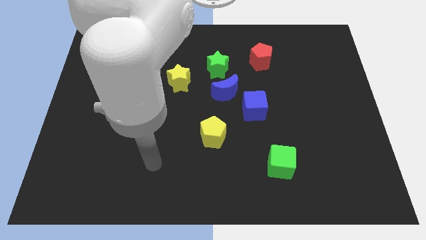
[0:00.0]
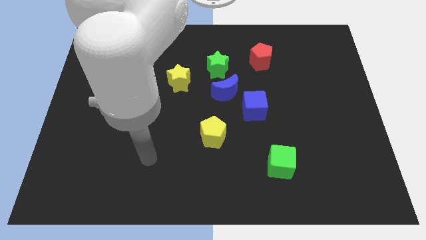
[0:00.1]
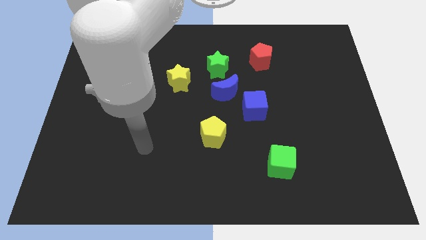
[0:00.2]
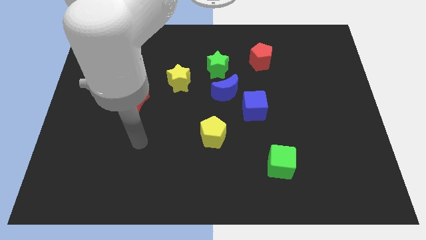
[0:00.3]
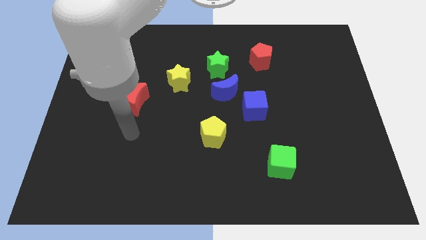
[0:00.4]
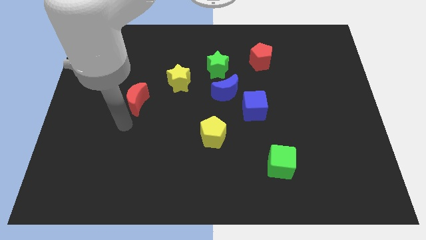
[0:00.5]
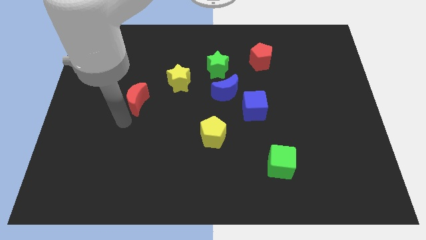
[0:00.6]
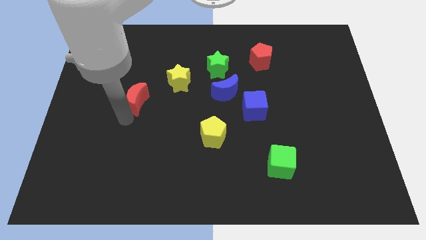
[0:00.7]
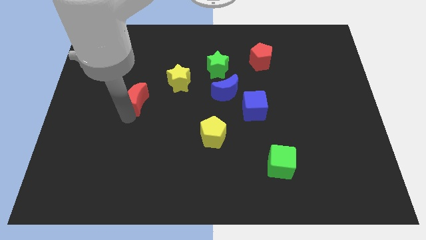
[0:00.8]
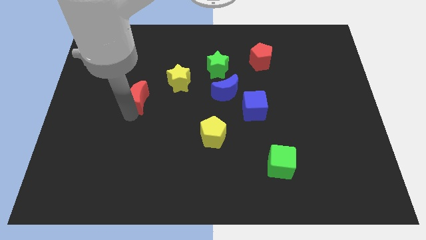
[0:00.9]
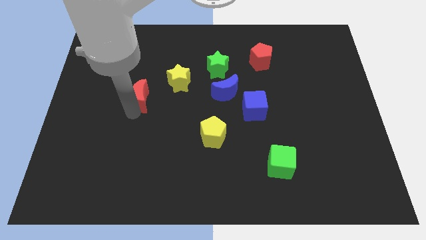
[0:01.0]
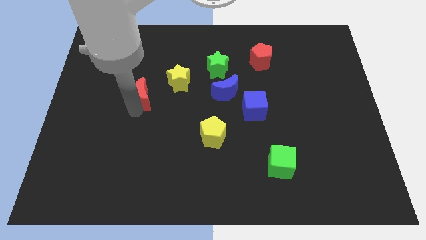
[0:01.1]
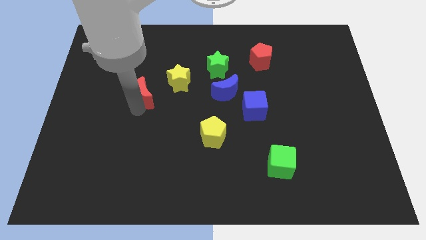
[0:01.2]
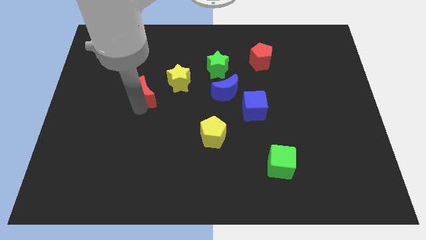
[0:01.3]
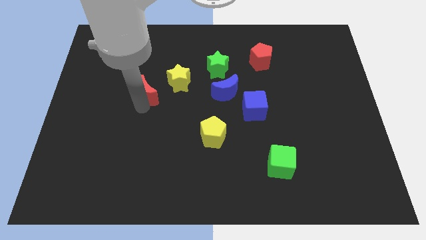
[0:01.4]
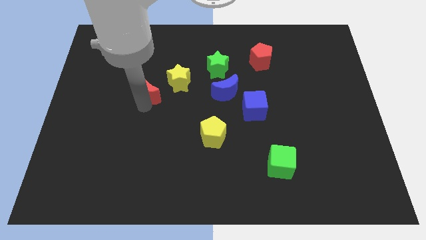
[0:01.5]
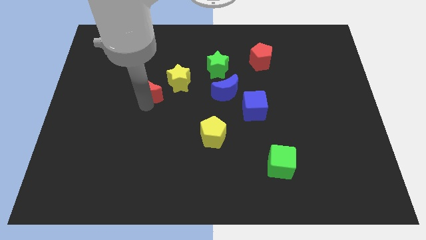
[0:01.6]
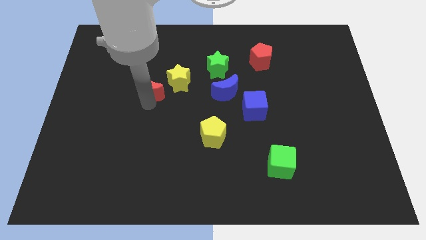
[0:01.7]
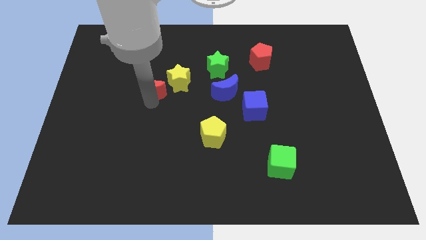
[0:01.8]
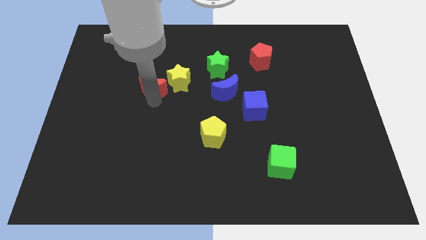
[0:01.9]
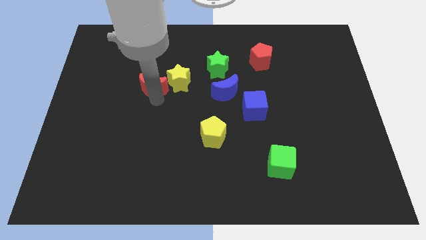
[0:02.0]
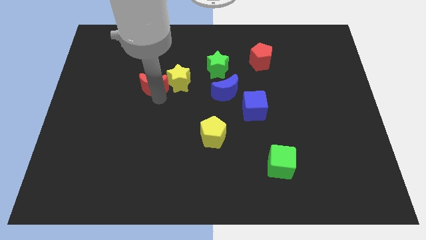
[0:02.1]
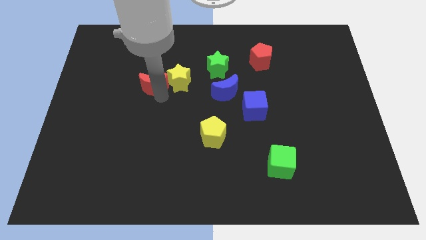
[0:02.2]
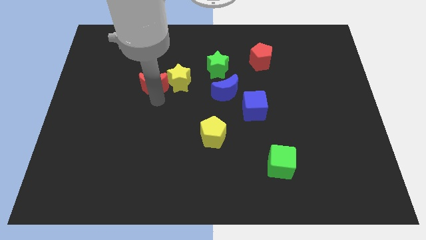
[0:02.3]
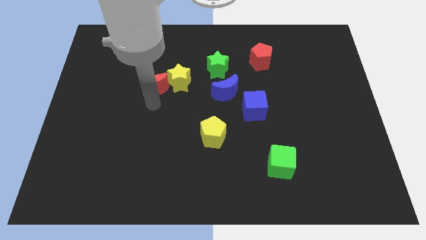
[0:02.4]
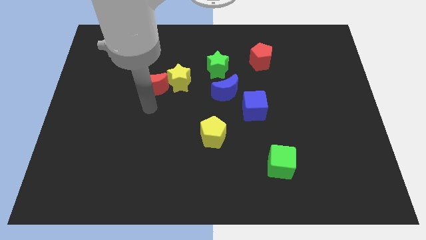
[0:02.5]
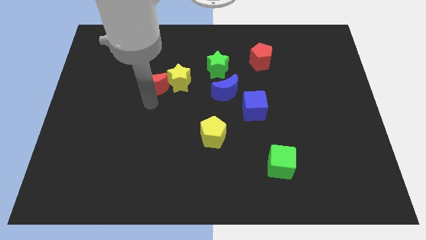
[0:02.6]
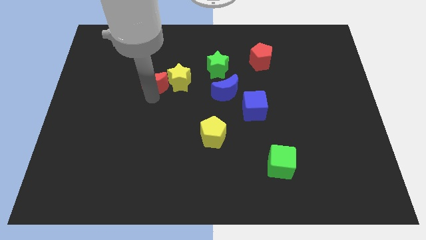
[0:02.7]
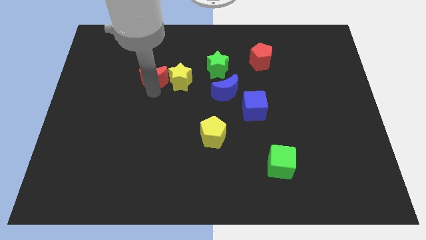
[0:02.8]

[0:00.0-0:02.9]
slide the red moon somewhat upwards and to the right diagonally

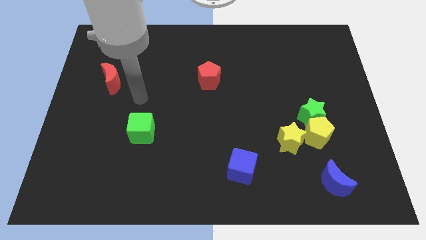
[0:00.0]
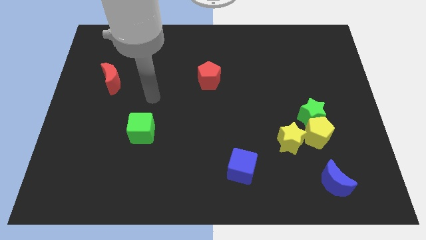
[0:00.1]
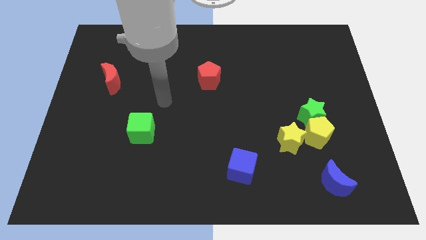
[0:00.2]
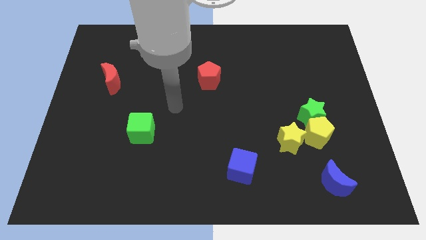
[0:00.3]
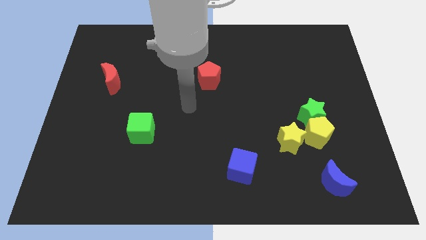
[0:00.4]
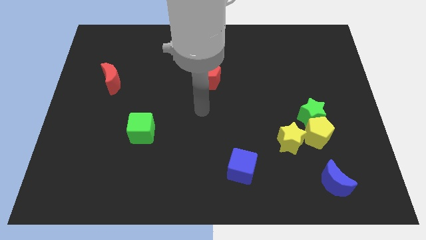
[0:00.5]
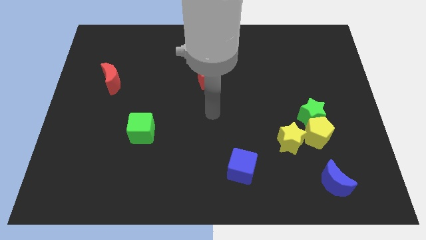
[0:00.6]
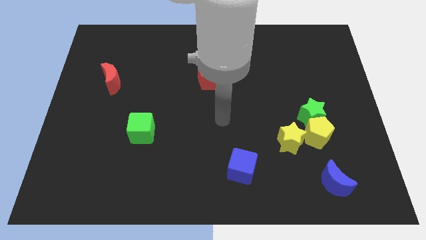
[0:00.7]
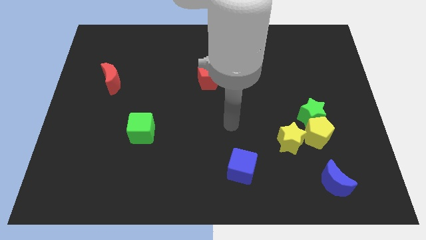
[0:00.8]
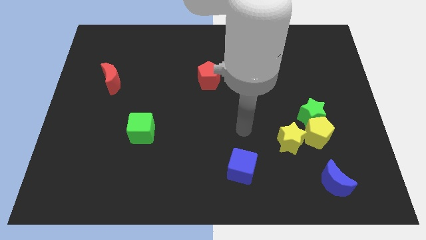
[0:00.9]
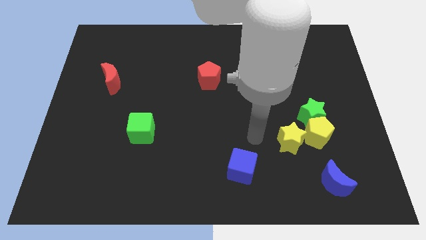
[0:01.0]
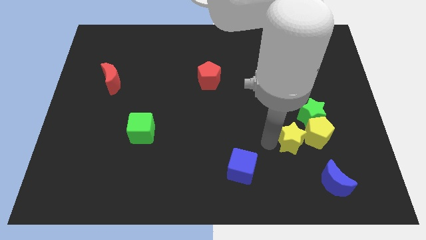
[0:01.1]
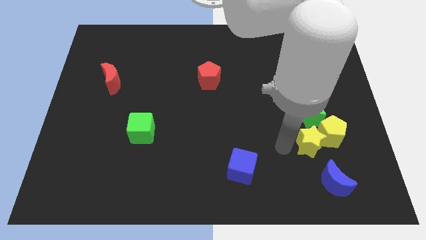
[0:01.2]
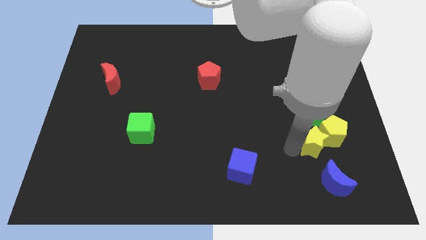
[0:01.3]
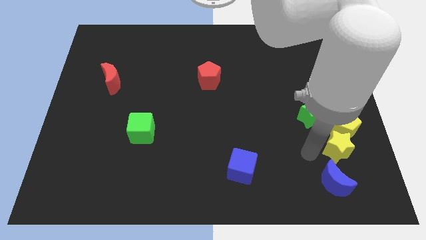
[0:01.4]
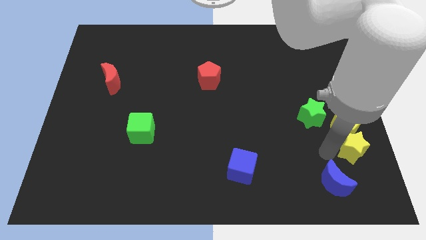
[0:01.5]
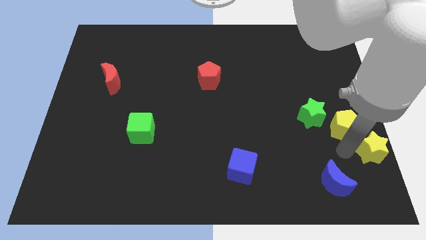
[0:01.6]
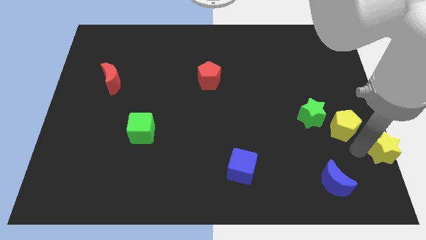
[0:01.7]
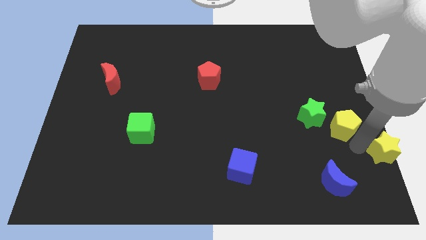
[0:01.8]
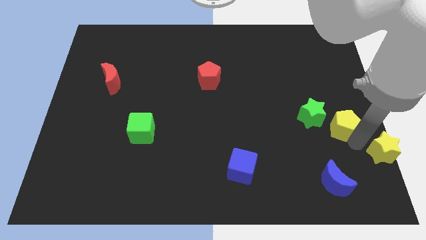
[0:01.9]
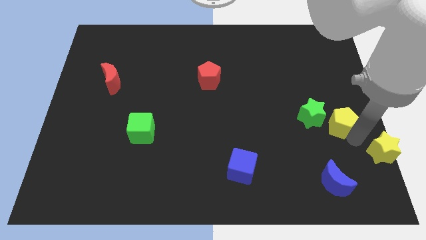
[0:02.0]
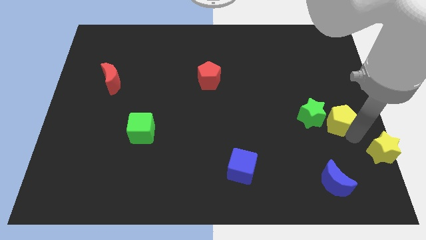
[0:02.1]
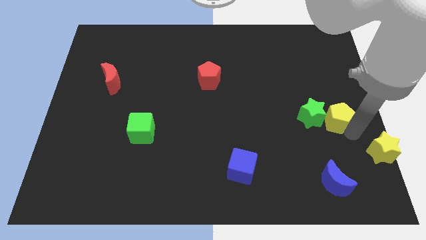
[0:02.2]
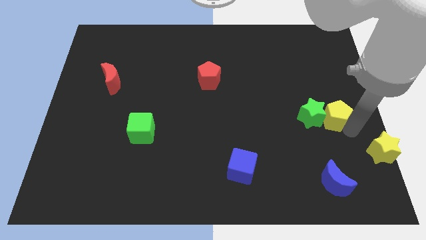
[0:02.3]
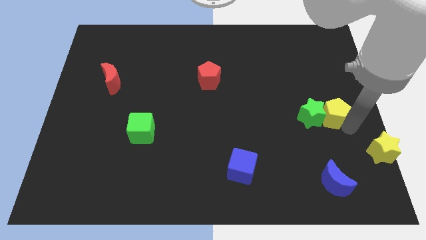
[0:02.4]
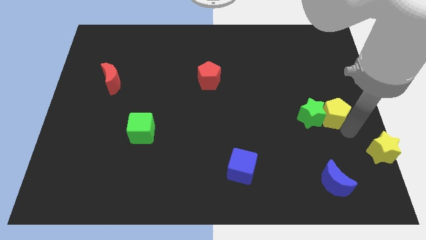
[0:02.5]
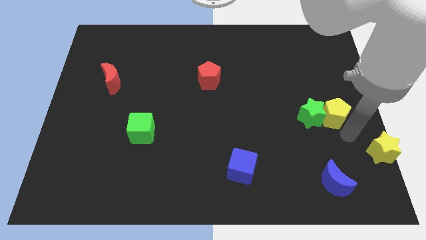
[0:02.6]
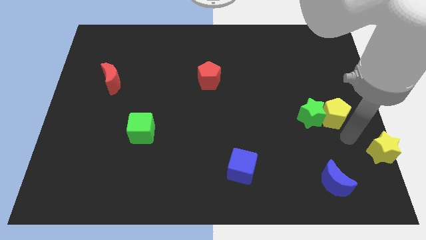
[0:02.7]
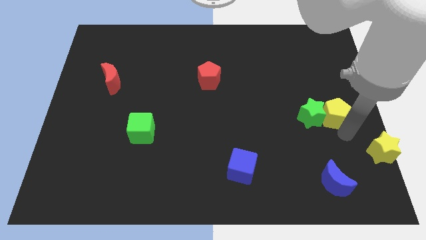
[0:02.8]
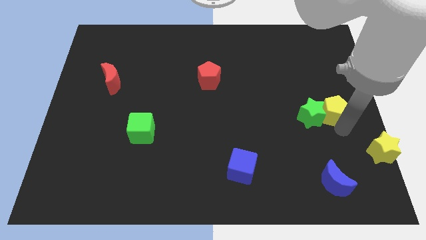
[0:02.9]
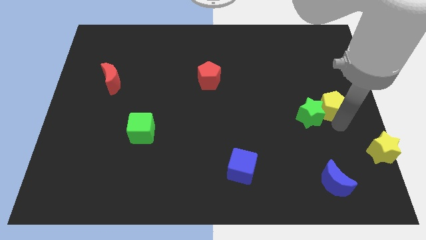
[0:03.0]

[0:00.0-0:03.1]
move the yellow pentagon a little up

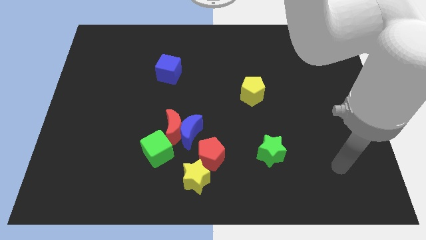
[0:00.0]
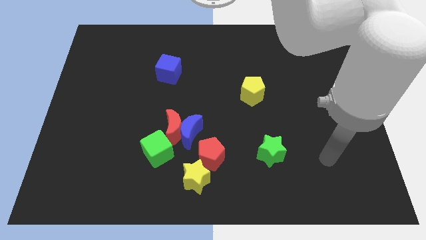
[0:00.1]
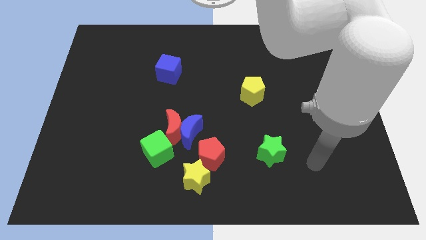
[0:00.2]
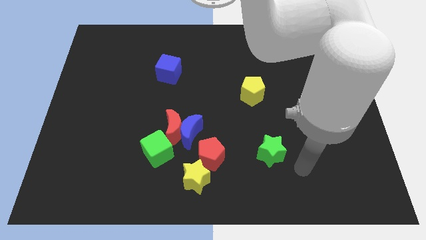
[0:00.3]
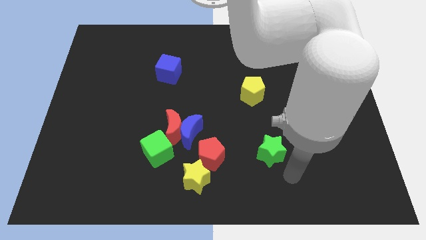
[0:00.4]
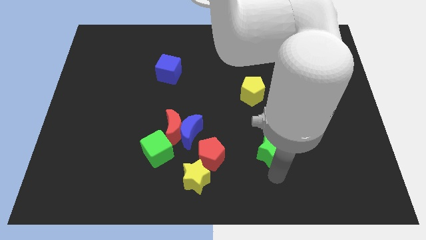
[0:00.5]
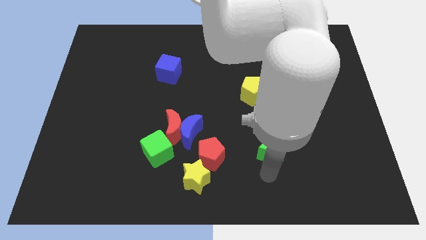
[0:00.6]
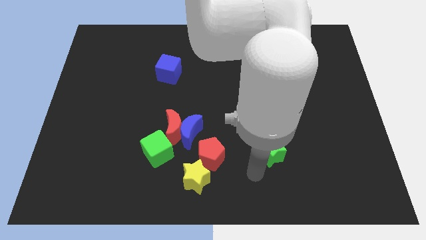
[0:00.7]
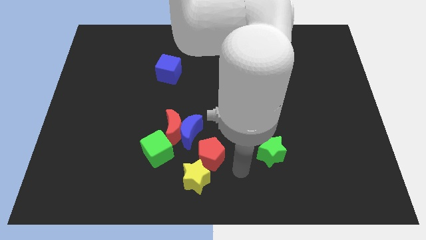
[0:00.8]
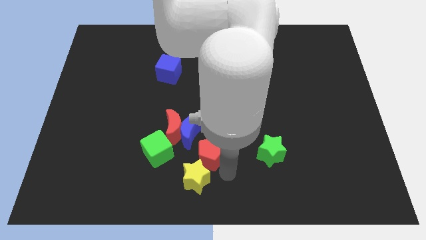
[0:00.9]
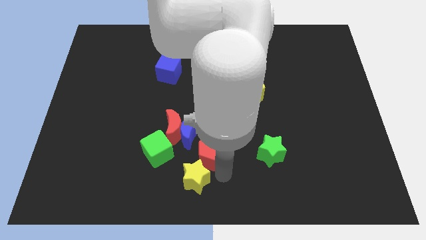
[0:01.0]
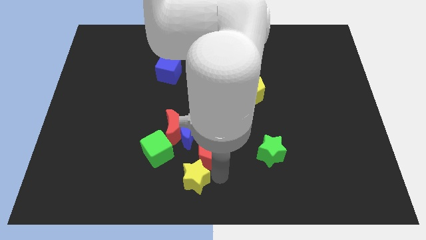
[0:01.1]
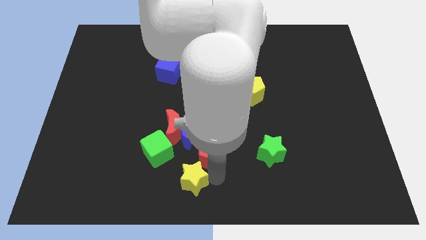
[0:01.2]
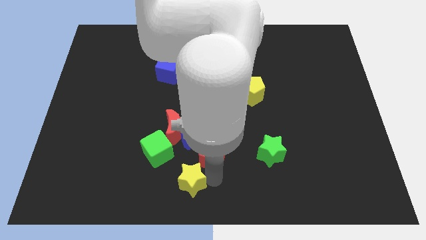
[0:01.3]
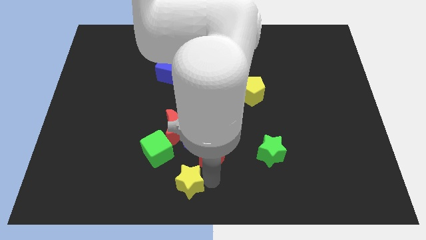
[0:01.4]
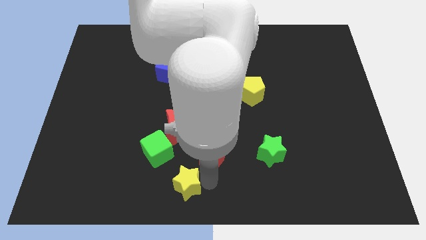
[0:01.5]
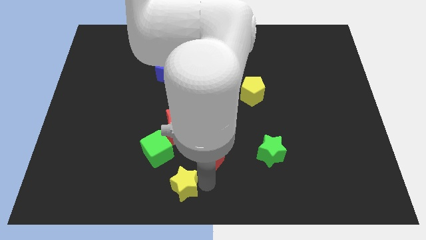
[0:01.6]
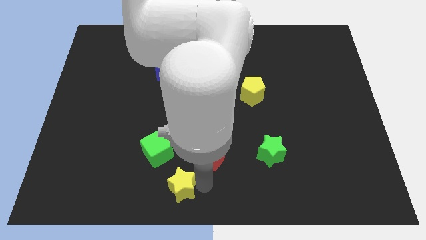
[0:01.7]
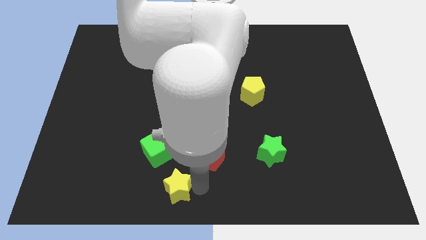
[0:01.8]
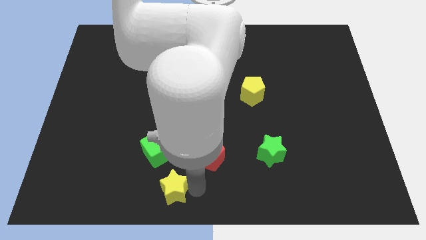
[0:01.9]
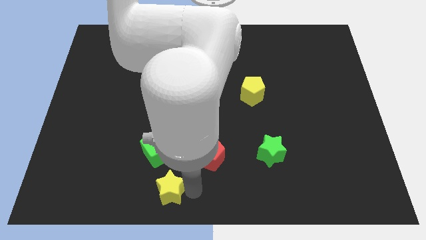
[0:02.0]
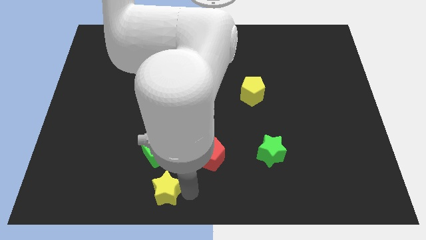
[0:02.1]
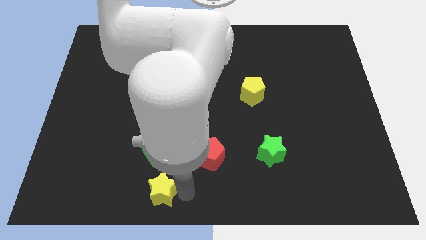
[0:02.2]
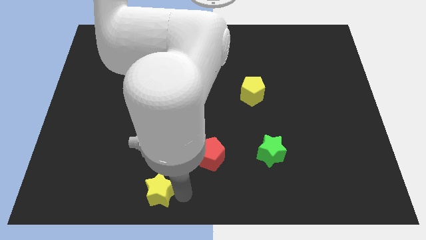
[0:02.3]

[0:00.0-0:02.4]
move the yellow star a bit left
